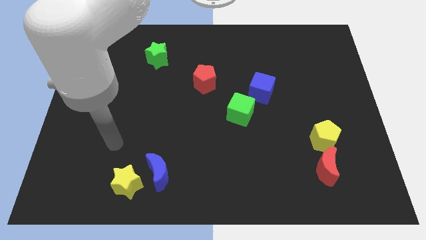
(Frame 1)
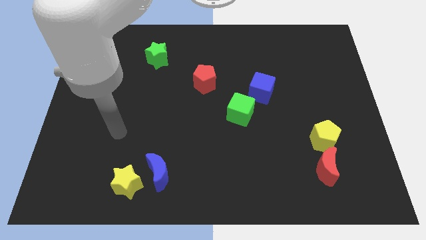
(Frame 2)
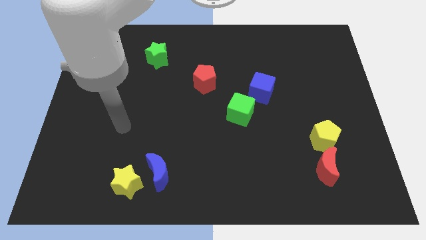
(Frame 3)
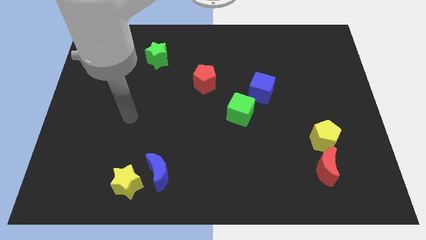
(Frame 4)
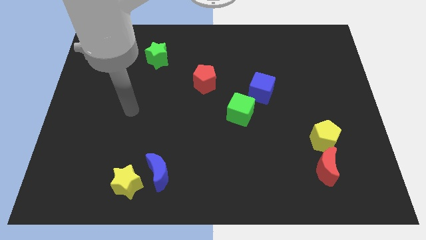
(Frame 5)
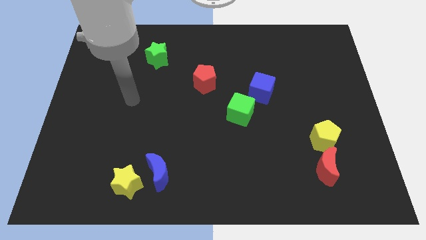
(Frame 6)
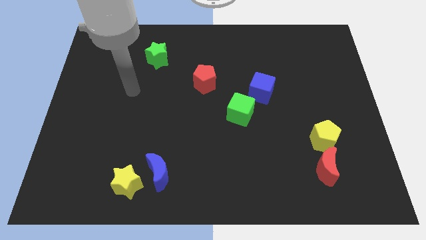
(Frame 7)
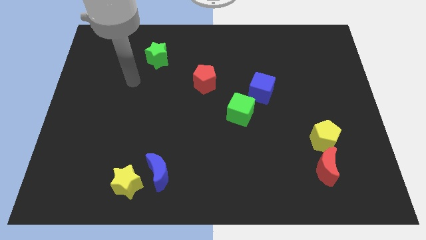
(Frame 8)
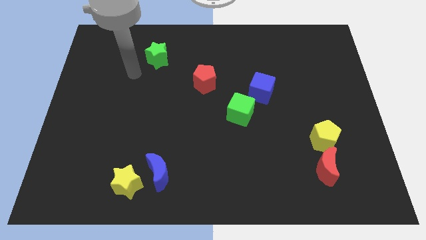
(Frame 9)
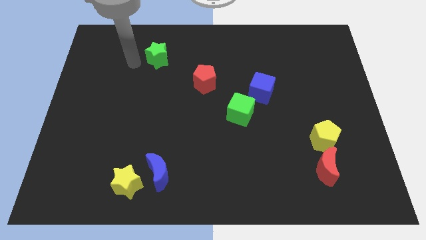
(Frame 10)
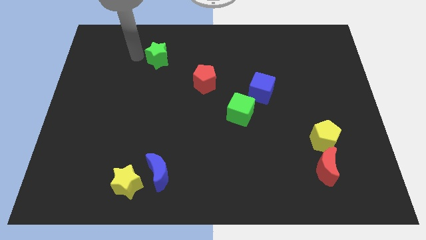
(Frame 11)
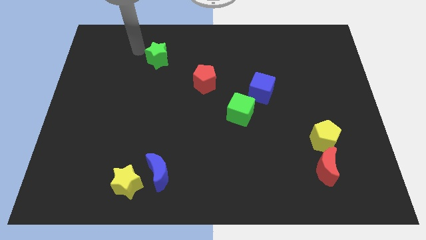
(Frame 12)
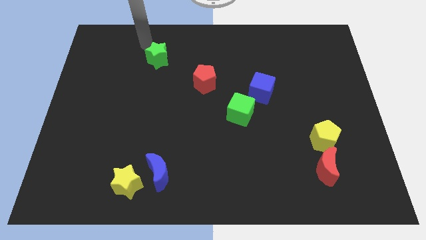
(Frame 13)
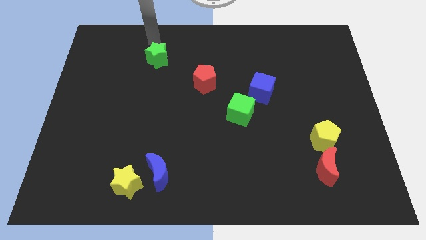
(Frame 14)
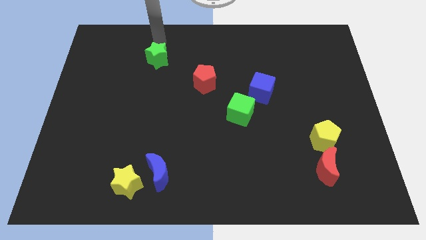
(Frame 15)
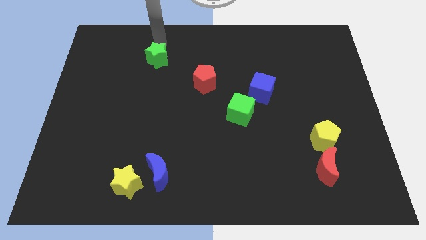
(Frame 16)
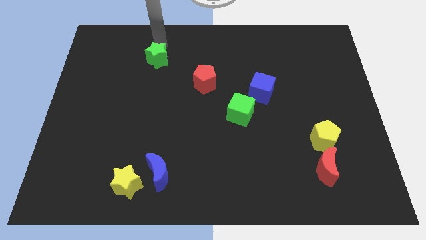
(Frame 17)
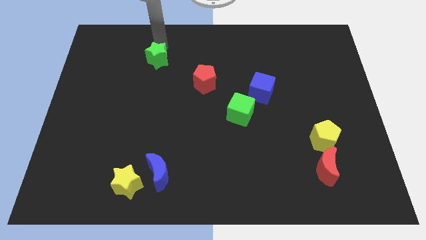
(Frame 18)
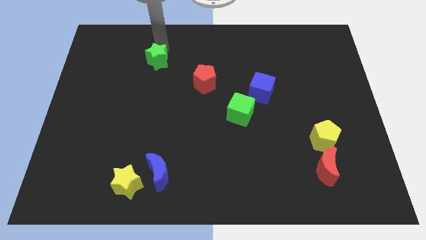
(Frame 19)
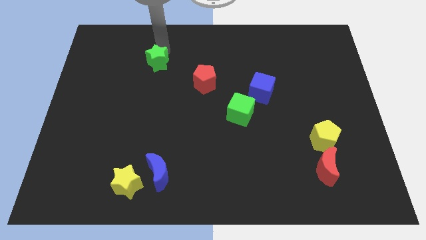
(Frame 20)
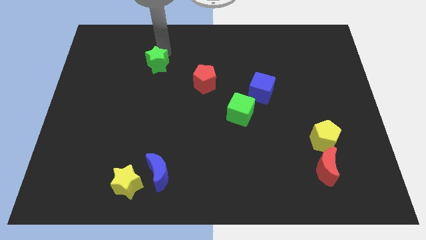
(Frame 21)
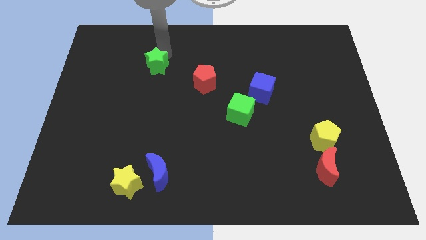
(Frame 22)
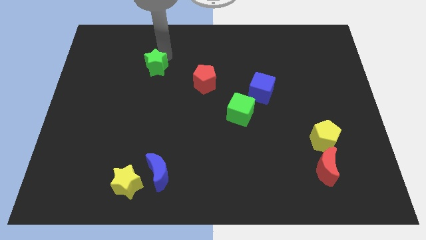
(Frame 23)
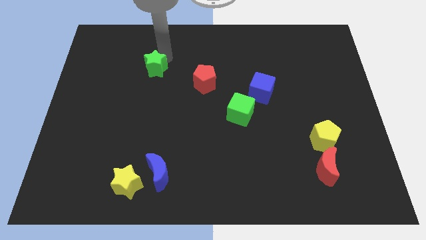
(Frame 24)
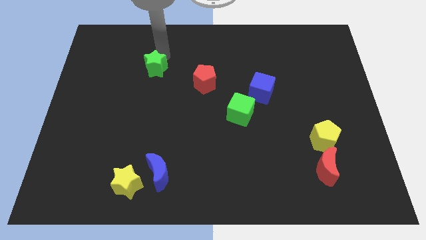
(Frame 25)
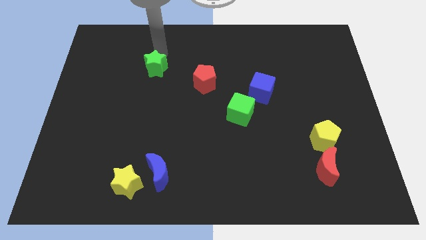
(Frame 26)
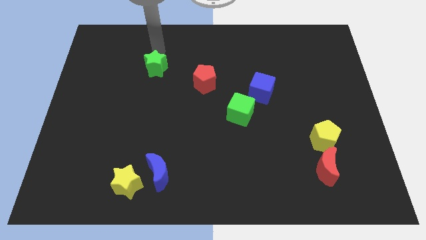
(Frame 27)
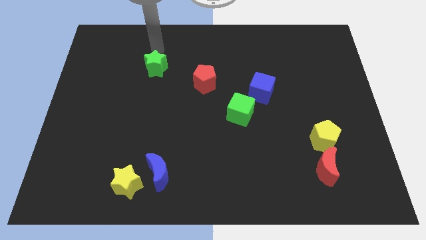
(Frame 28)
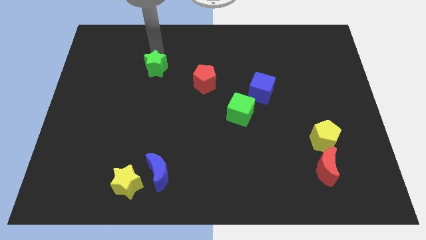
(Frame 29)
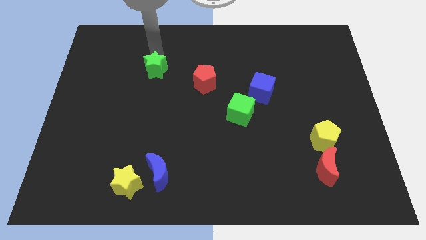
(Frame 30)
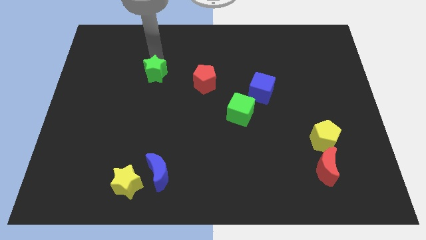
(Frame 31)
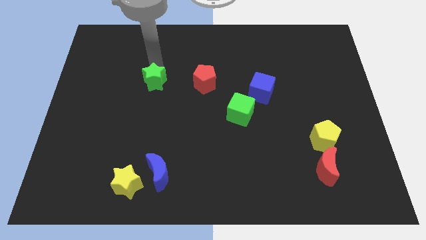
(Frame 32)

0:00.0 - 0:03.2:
slightly move the green star down

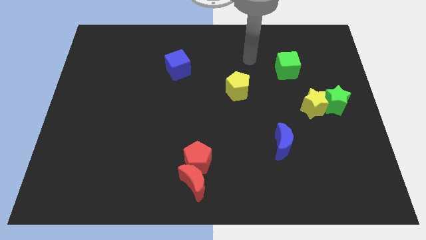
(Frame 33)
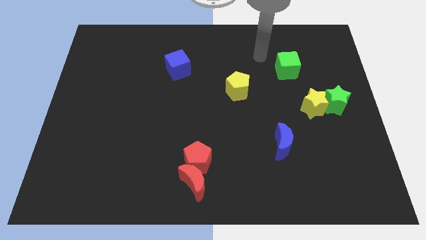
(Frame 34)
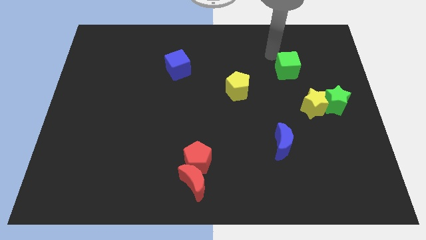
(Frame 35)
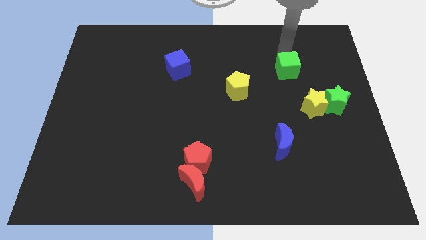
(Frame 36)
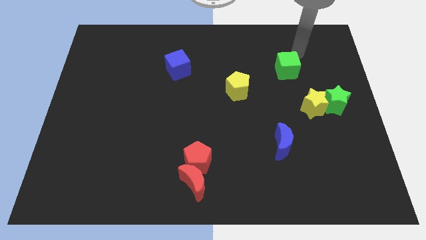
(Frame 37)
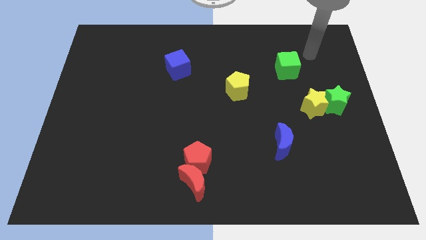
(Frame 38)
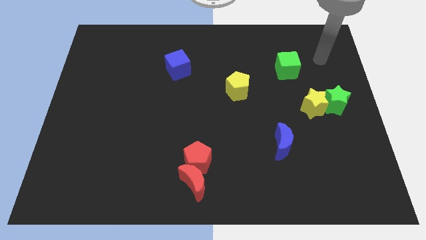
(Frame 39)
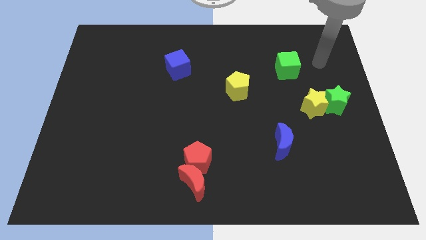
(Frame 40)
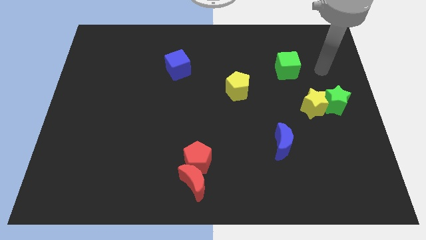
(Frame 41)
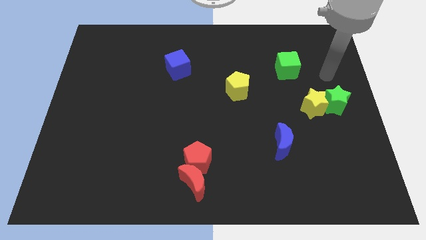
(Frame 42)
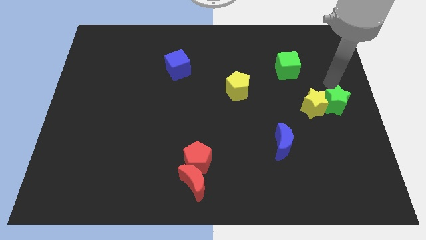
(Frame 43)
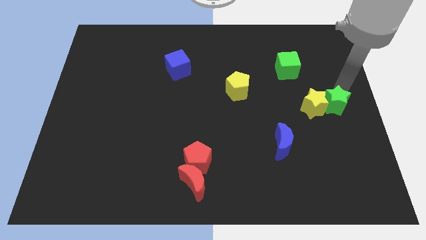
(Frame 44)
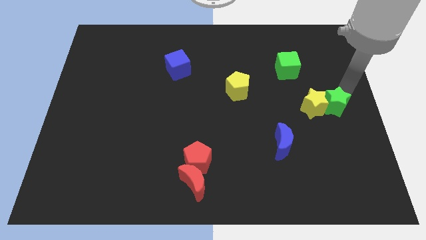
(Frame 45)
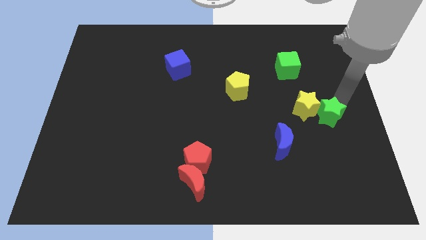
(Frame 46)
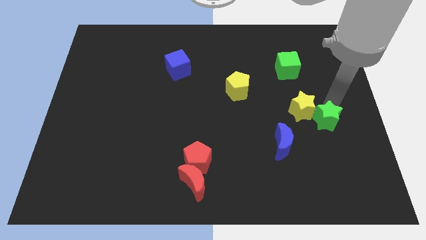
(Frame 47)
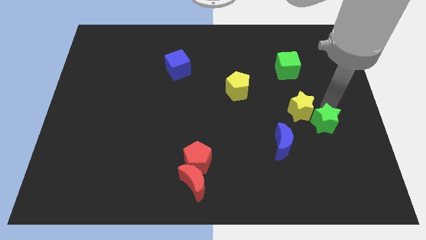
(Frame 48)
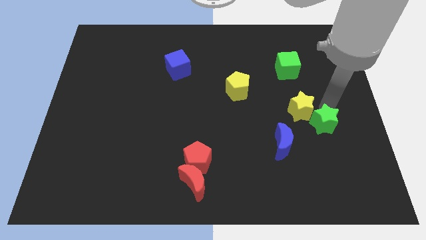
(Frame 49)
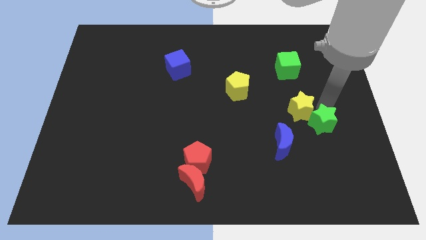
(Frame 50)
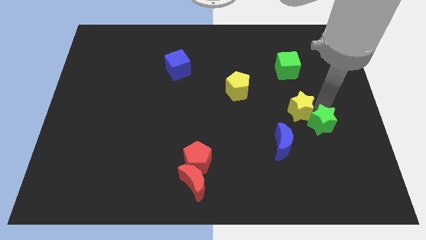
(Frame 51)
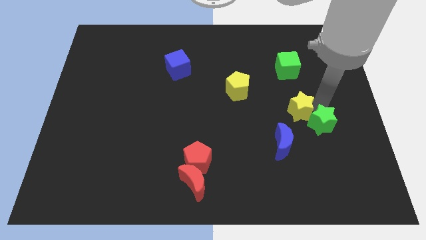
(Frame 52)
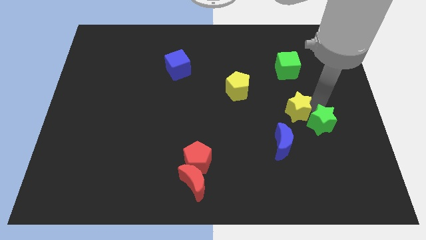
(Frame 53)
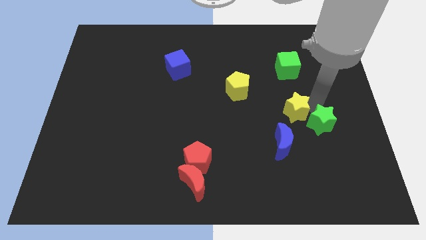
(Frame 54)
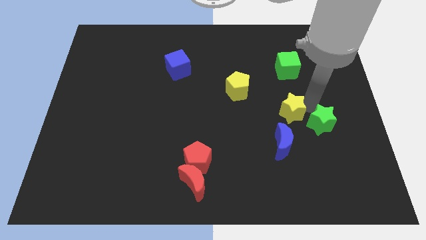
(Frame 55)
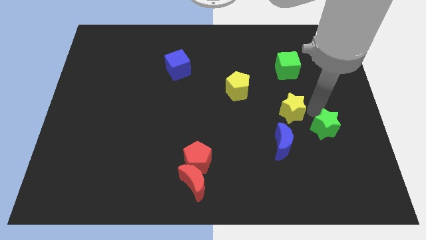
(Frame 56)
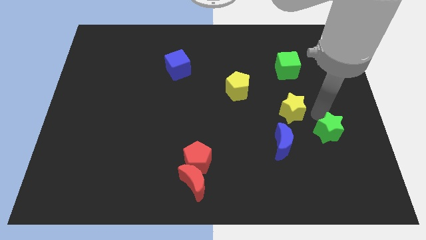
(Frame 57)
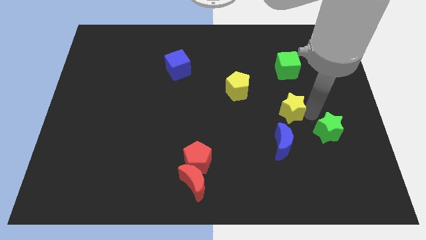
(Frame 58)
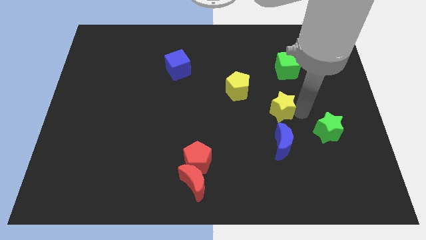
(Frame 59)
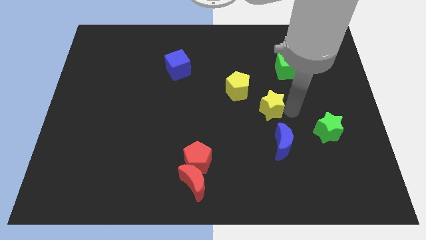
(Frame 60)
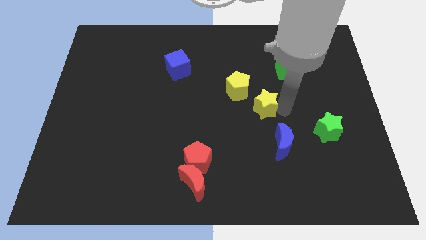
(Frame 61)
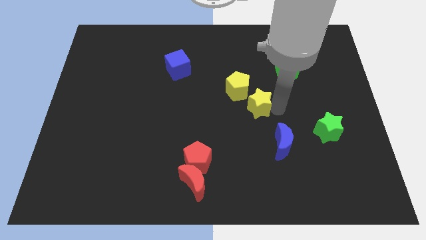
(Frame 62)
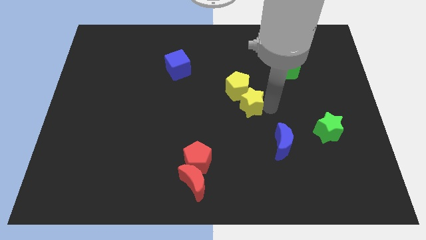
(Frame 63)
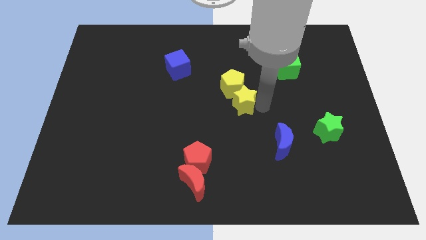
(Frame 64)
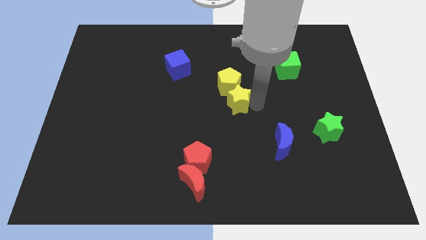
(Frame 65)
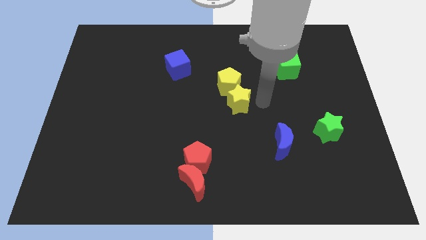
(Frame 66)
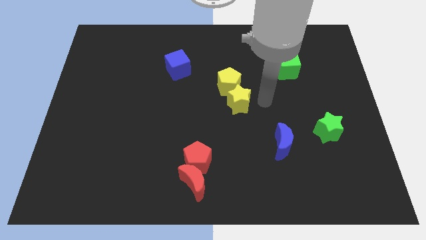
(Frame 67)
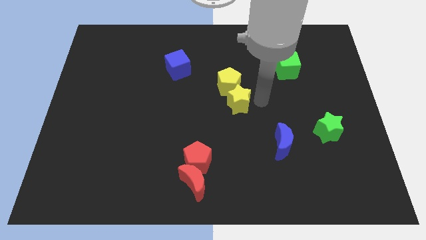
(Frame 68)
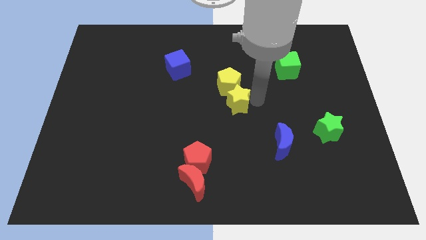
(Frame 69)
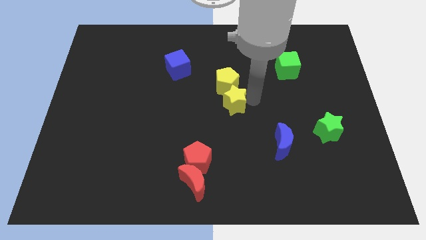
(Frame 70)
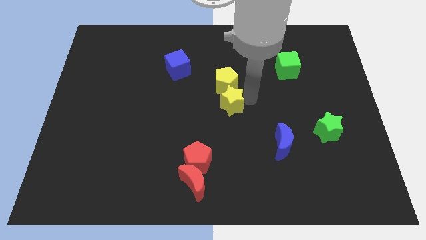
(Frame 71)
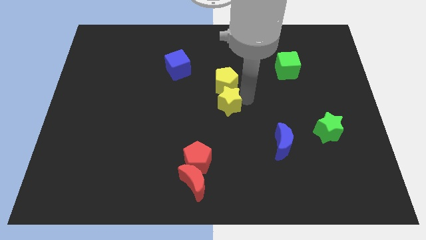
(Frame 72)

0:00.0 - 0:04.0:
move the yellow star left

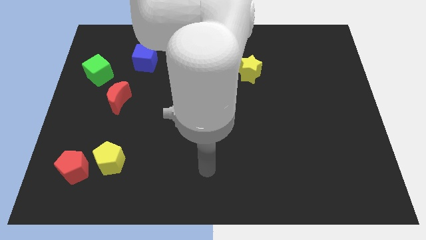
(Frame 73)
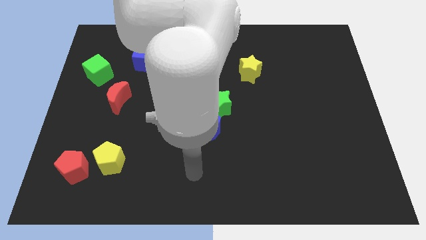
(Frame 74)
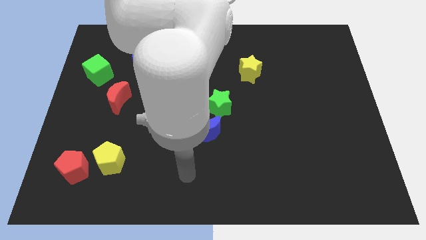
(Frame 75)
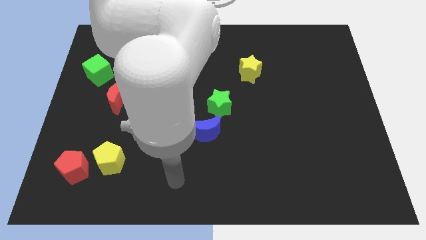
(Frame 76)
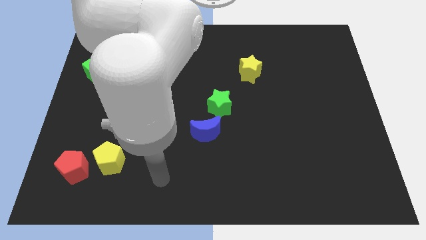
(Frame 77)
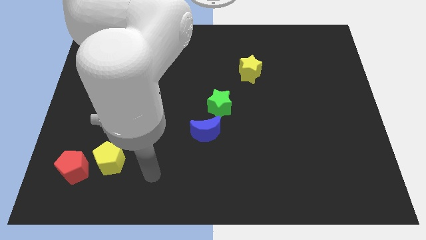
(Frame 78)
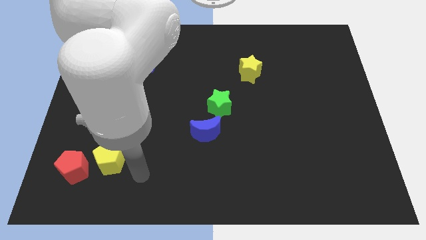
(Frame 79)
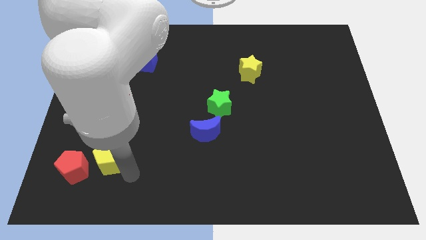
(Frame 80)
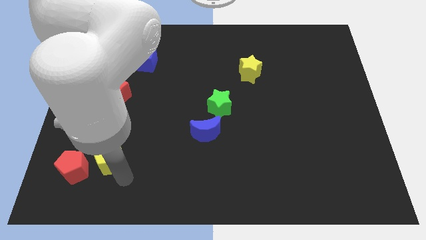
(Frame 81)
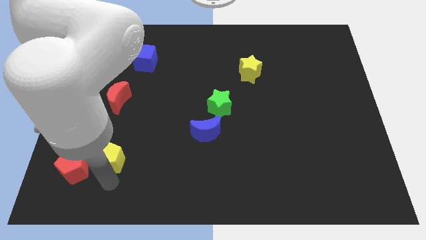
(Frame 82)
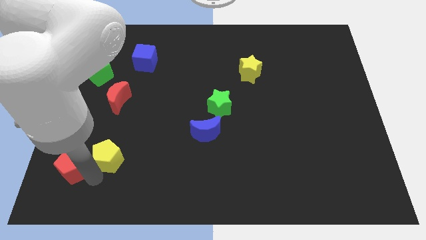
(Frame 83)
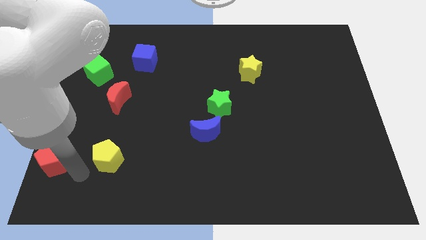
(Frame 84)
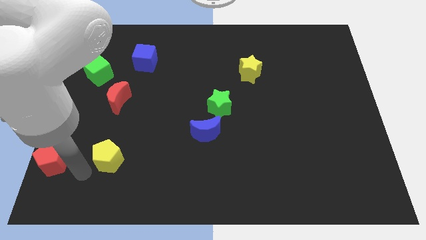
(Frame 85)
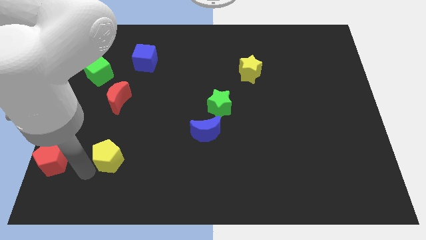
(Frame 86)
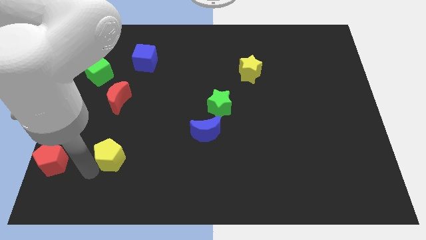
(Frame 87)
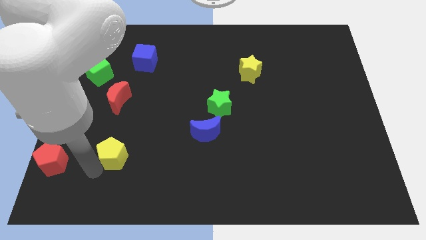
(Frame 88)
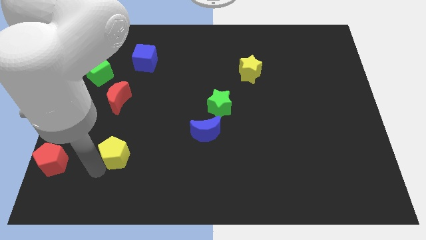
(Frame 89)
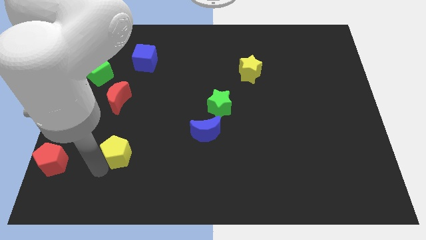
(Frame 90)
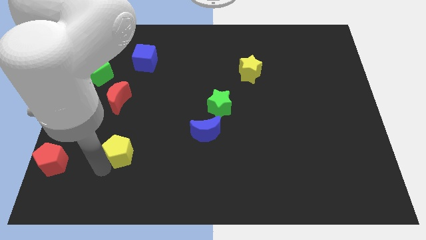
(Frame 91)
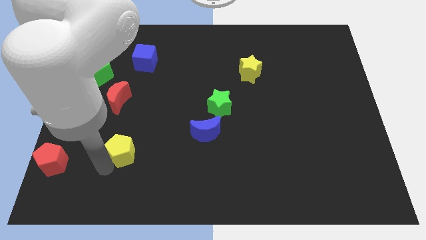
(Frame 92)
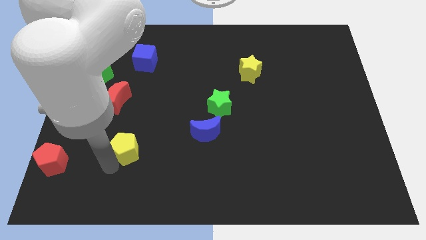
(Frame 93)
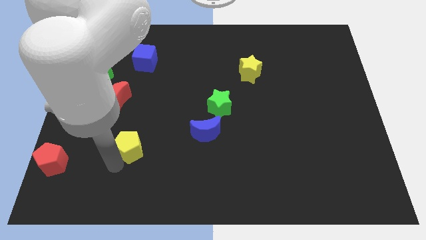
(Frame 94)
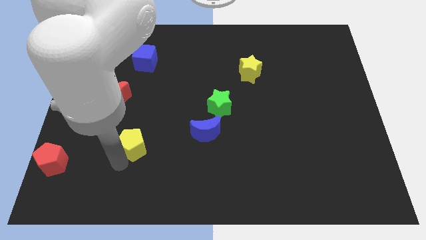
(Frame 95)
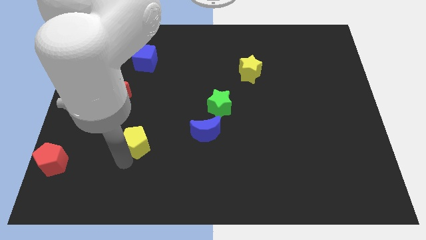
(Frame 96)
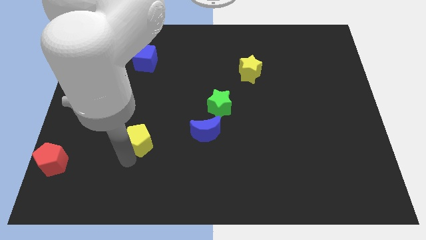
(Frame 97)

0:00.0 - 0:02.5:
slightly slide the yellow pentagon upwards and right diagonally
